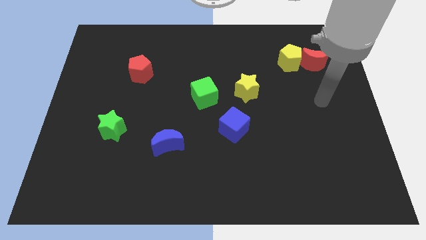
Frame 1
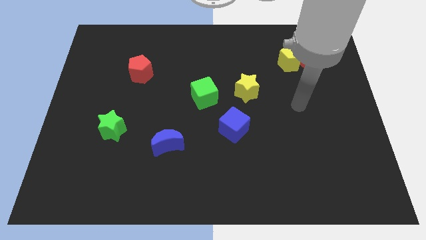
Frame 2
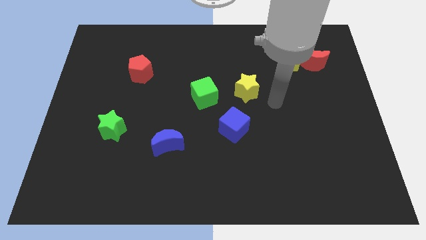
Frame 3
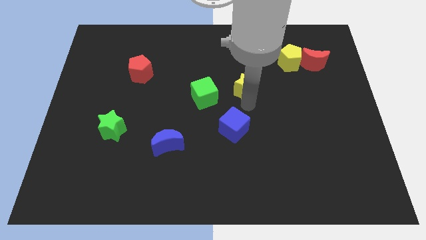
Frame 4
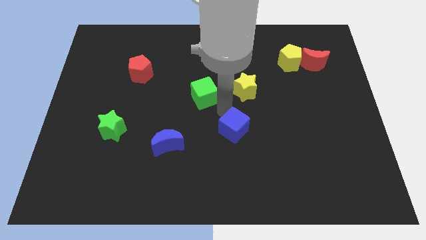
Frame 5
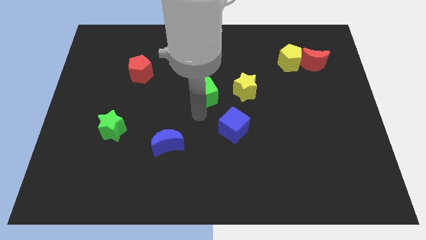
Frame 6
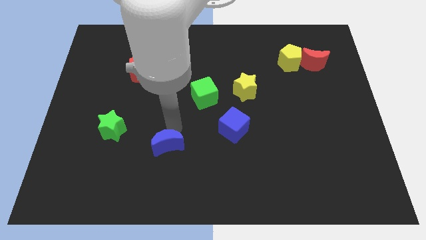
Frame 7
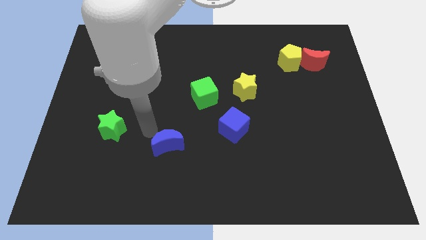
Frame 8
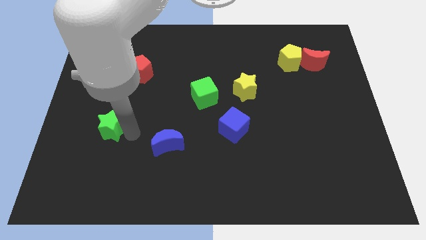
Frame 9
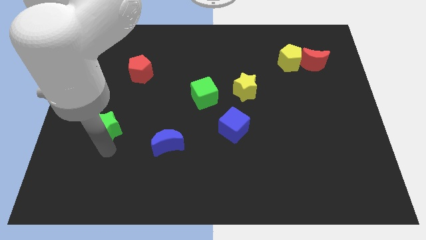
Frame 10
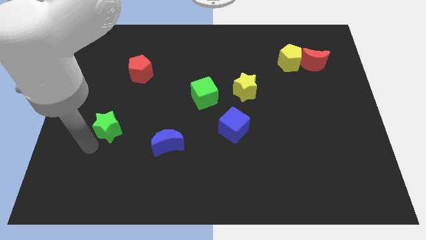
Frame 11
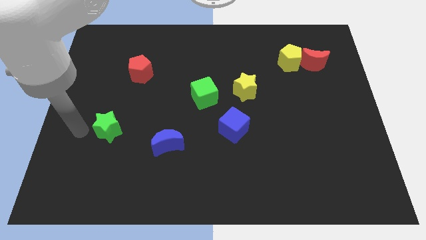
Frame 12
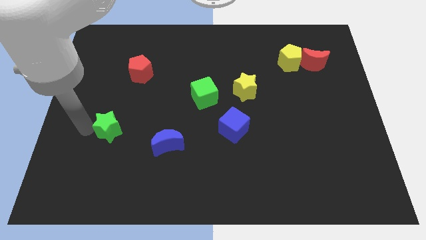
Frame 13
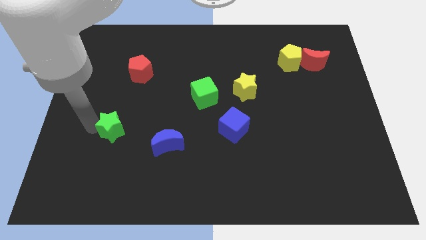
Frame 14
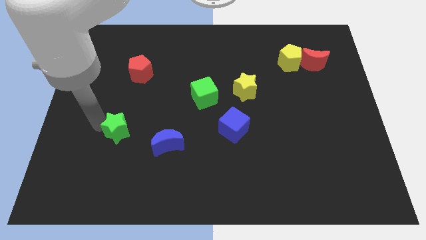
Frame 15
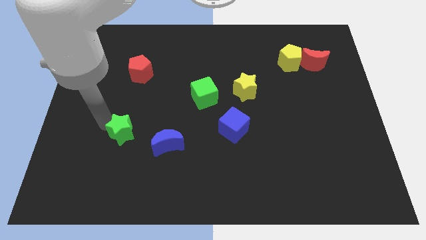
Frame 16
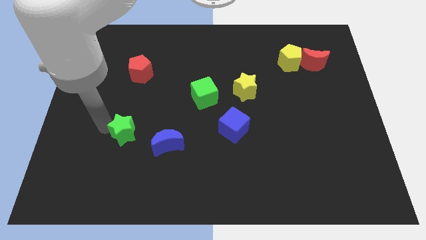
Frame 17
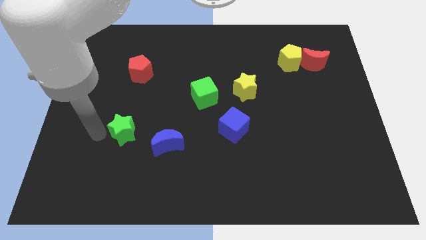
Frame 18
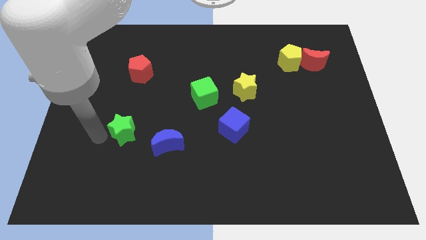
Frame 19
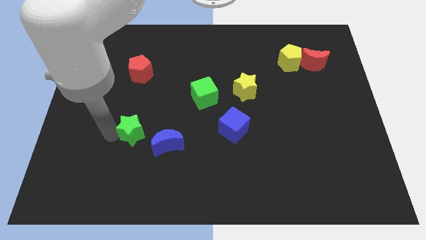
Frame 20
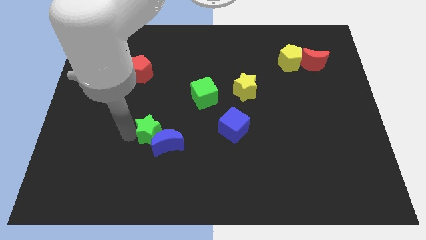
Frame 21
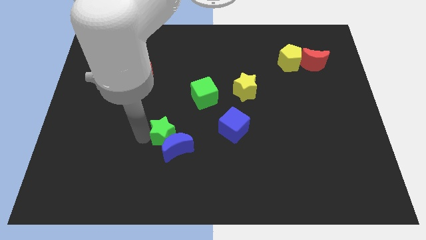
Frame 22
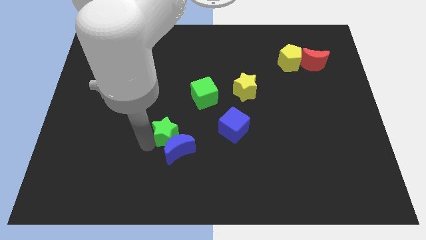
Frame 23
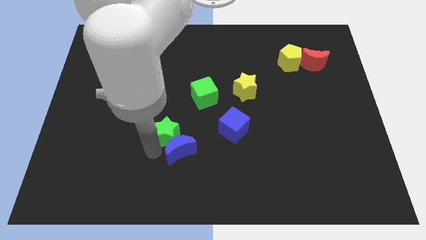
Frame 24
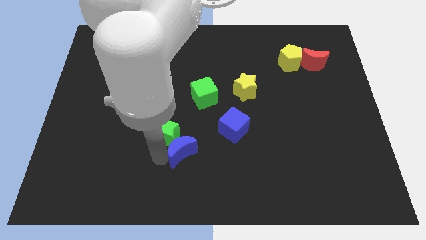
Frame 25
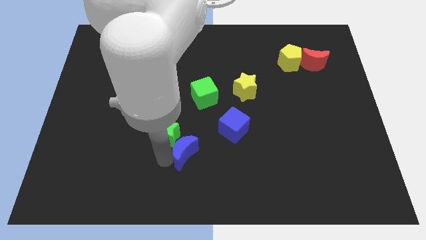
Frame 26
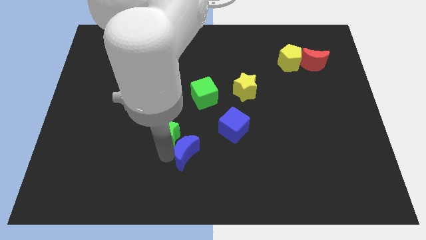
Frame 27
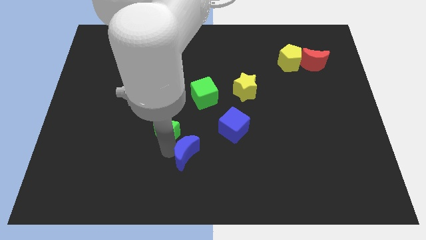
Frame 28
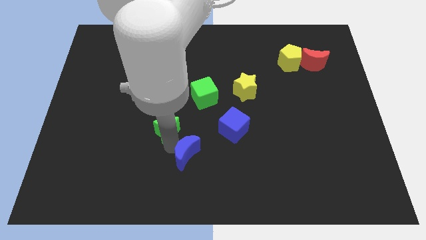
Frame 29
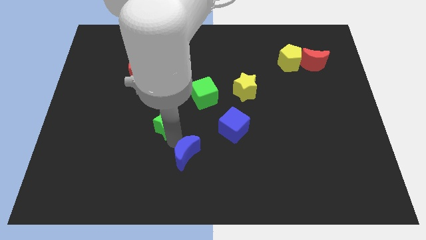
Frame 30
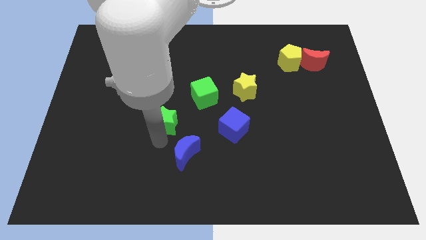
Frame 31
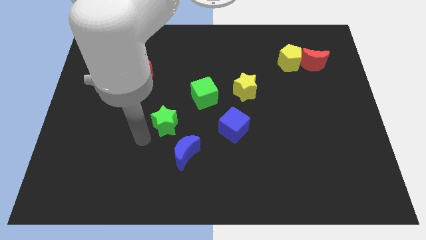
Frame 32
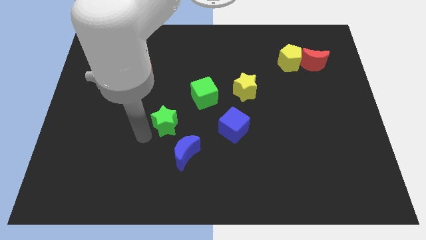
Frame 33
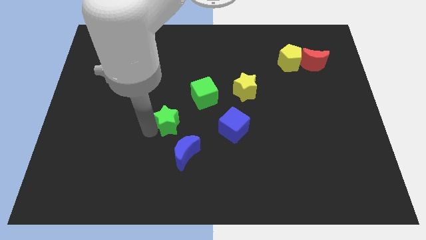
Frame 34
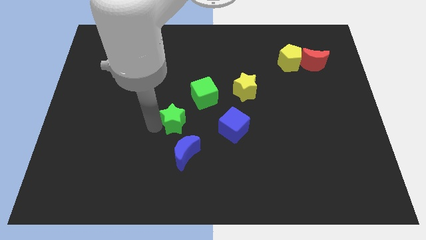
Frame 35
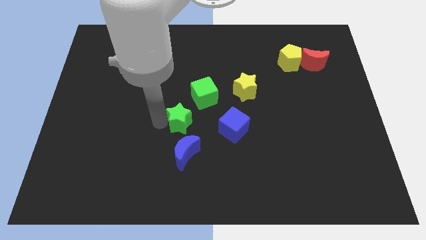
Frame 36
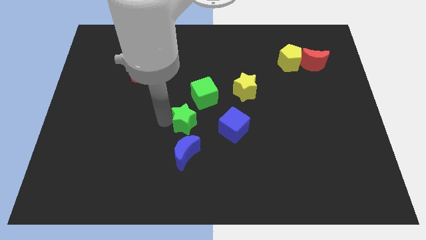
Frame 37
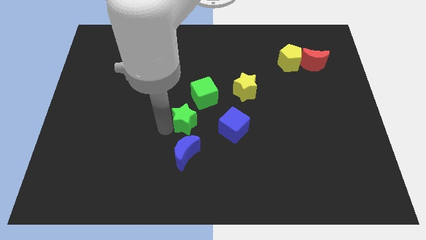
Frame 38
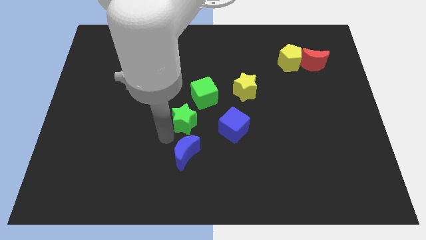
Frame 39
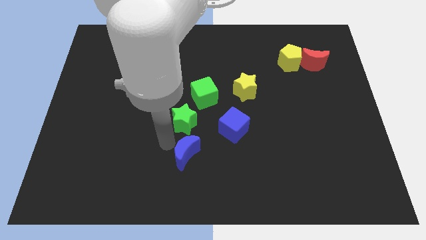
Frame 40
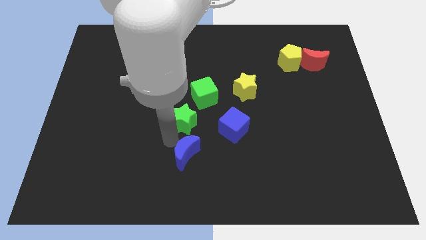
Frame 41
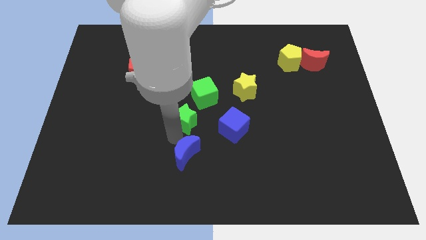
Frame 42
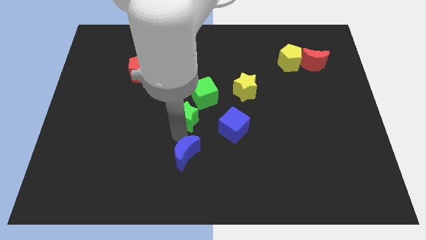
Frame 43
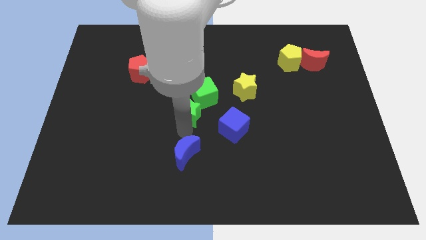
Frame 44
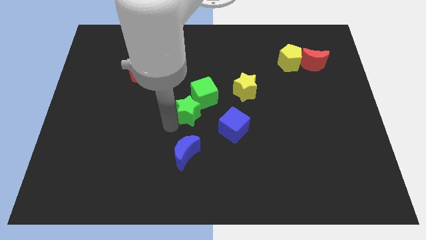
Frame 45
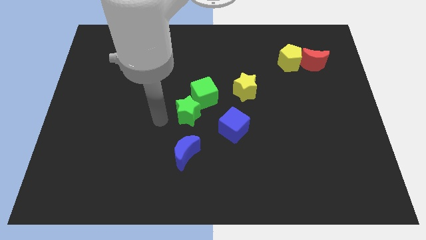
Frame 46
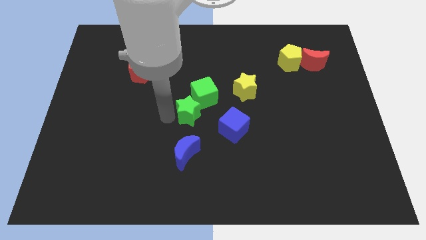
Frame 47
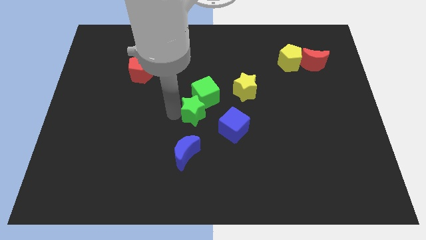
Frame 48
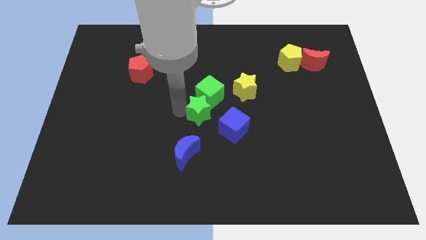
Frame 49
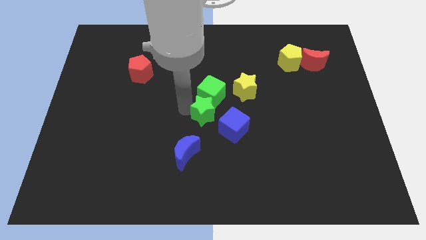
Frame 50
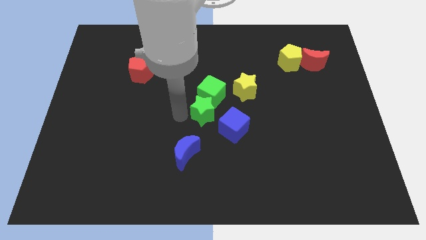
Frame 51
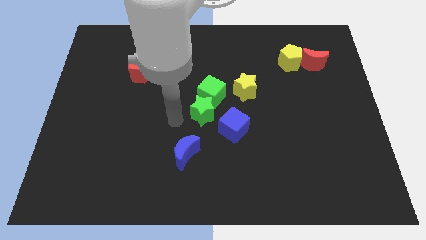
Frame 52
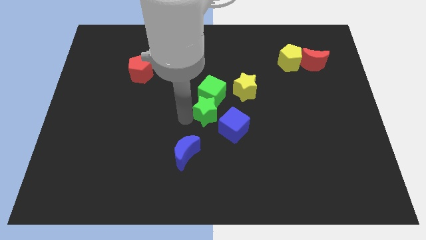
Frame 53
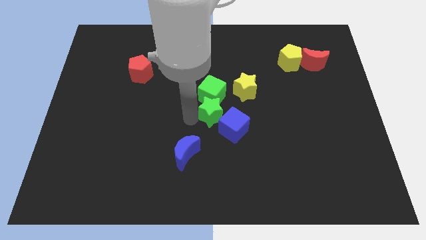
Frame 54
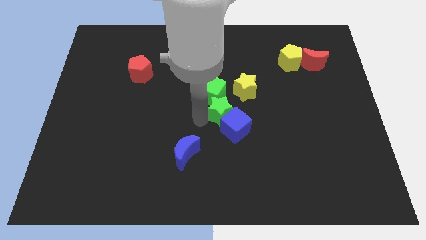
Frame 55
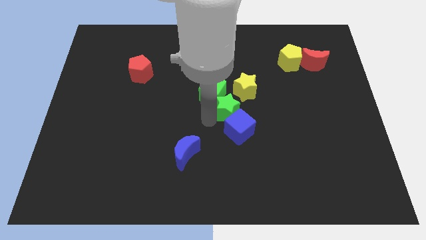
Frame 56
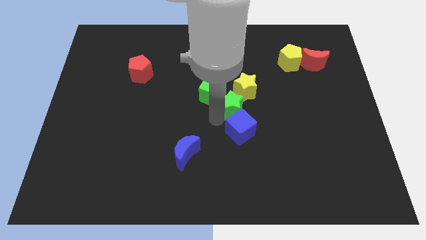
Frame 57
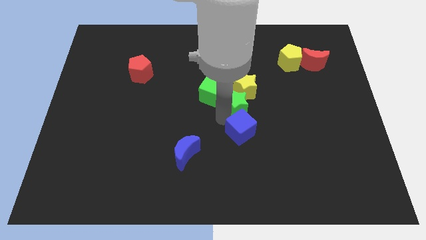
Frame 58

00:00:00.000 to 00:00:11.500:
slide the green star next to the yellow star

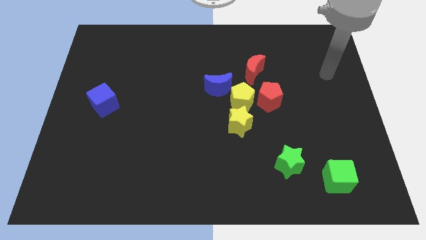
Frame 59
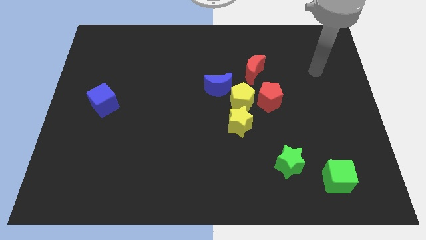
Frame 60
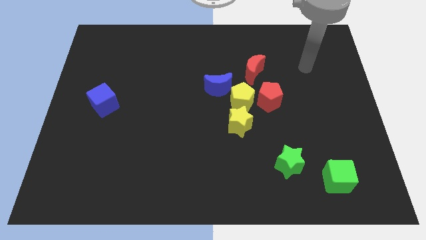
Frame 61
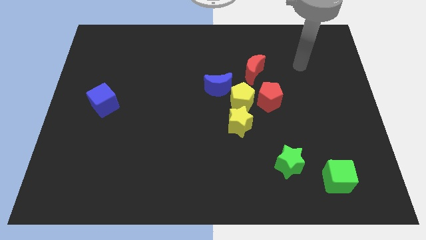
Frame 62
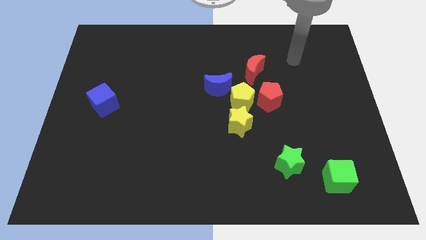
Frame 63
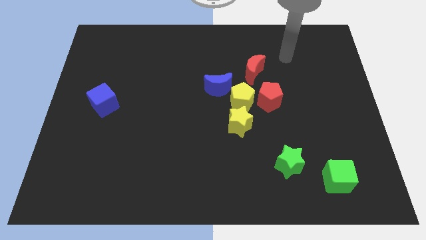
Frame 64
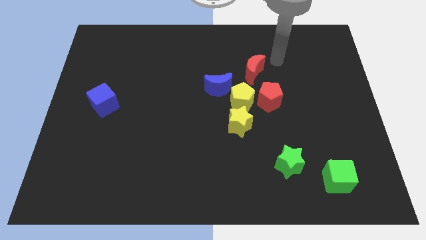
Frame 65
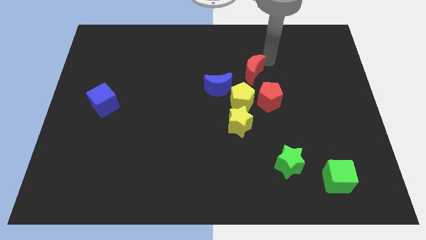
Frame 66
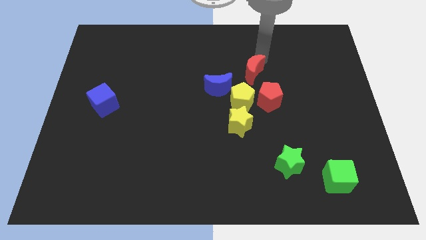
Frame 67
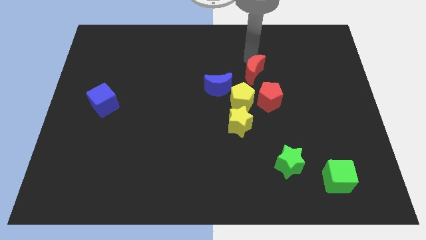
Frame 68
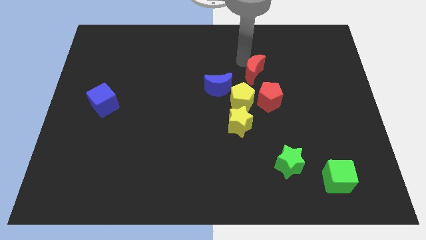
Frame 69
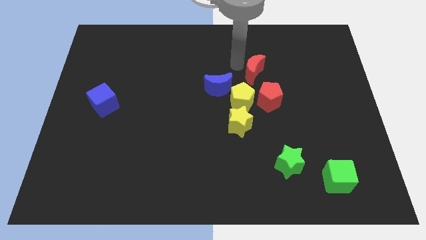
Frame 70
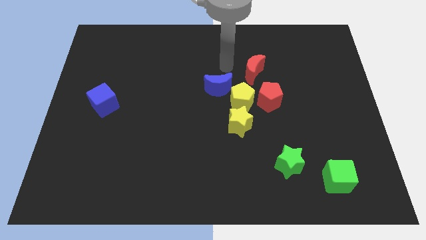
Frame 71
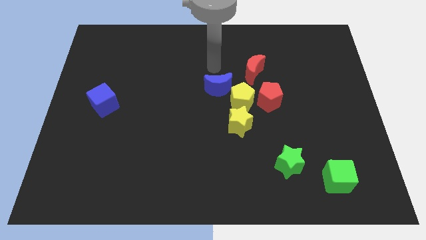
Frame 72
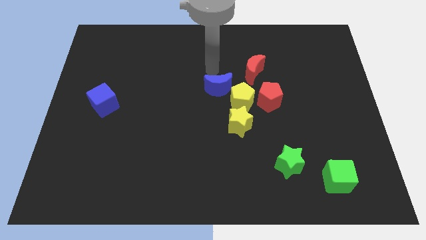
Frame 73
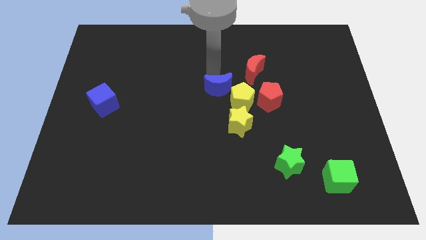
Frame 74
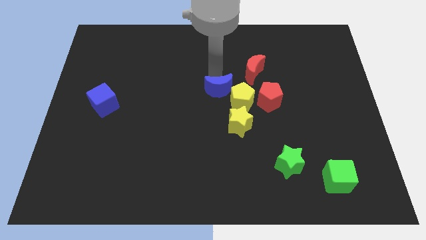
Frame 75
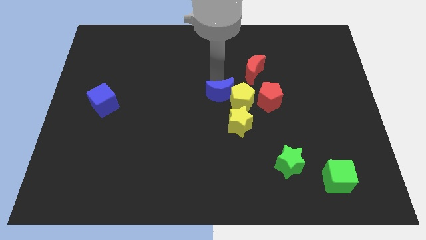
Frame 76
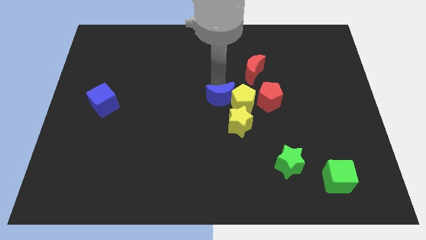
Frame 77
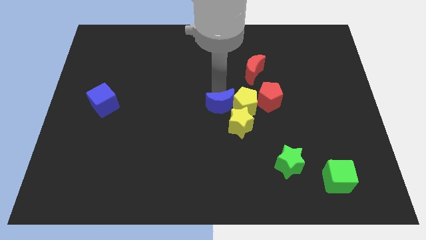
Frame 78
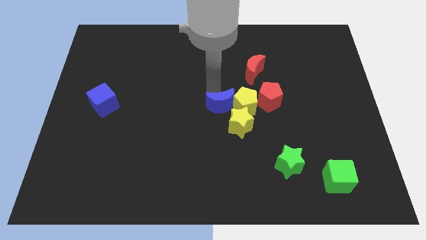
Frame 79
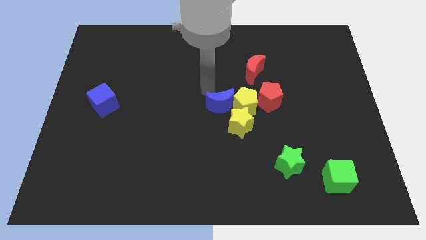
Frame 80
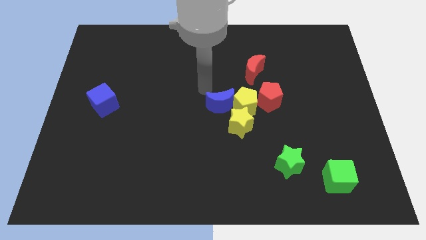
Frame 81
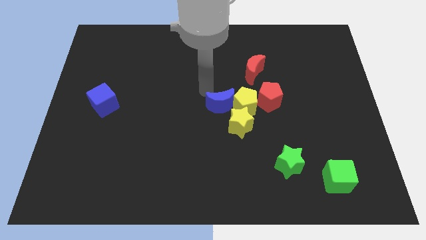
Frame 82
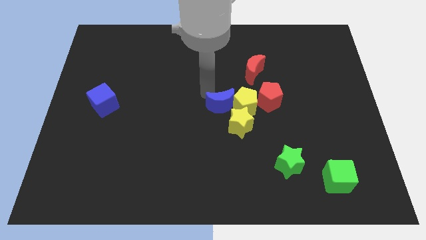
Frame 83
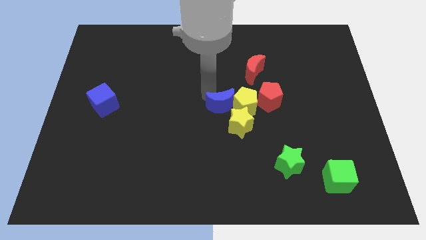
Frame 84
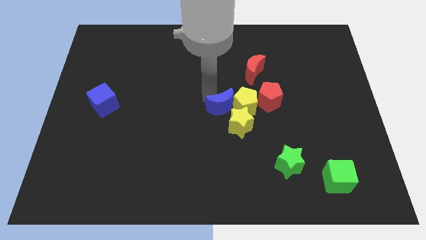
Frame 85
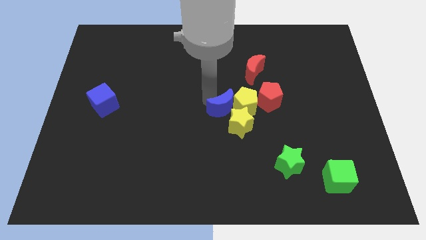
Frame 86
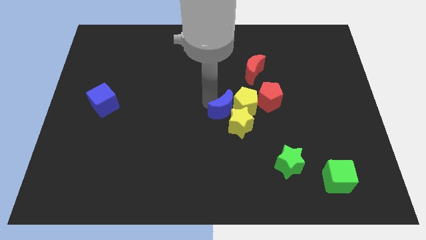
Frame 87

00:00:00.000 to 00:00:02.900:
move the blue moon close to the yellow star
